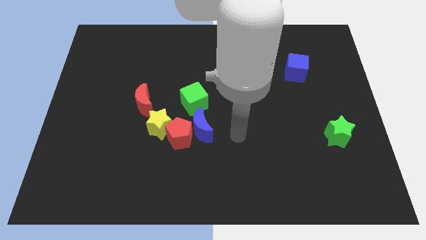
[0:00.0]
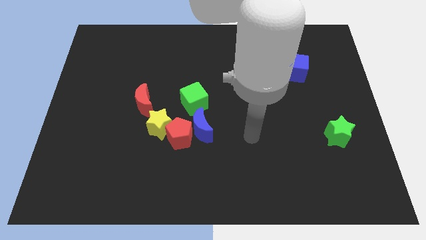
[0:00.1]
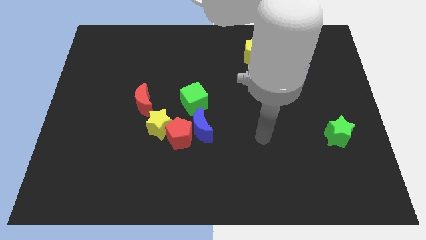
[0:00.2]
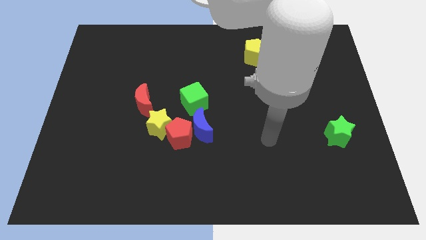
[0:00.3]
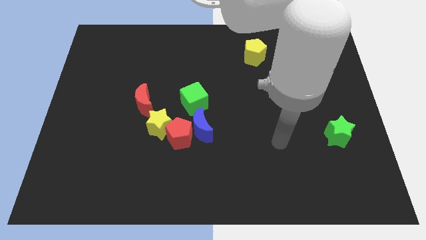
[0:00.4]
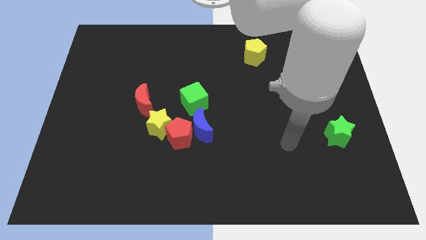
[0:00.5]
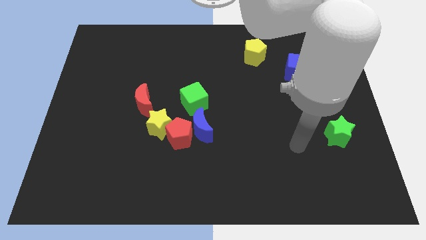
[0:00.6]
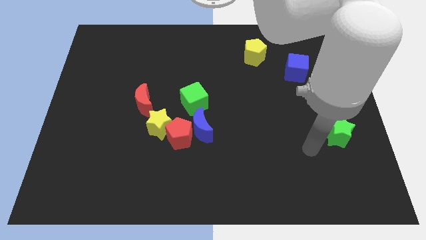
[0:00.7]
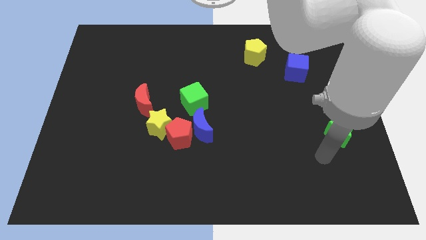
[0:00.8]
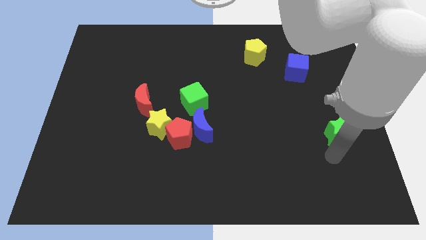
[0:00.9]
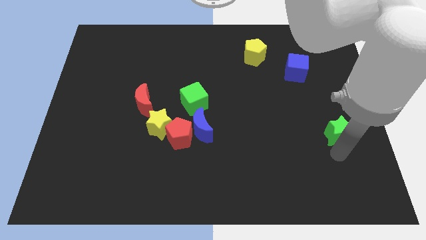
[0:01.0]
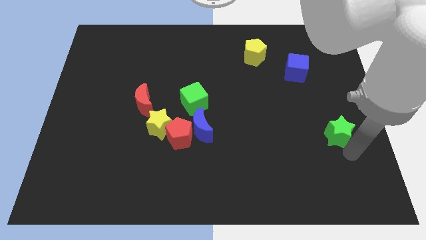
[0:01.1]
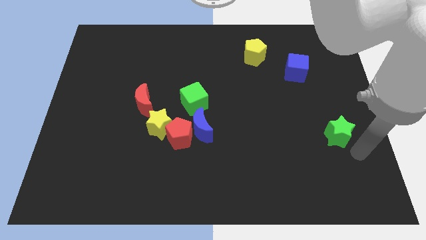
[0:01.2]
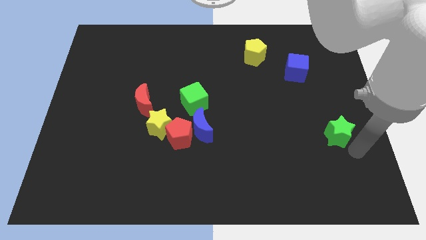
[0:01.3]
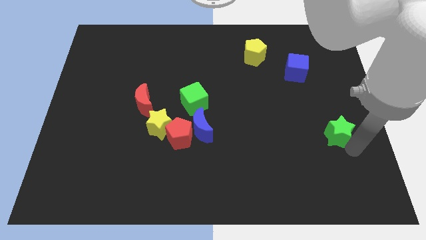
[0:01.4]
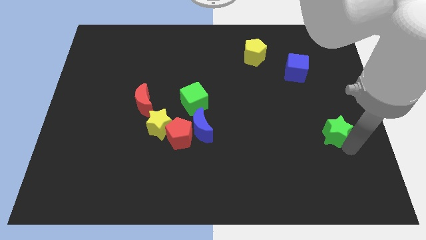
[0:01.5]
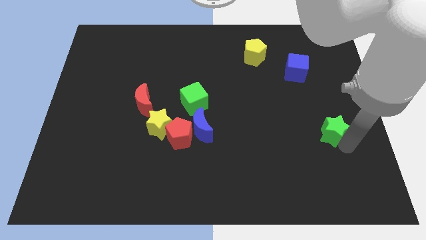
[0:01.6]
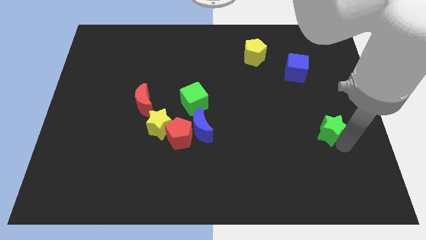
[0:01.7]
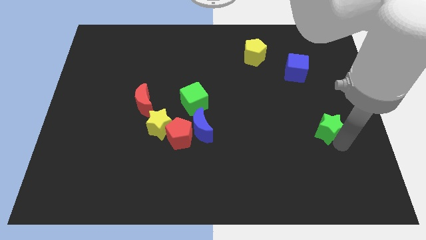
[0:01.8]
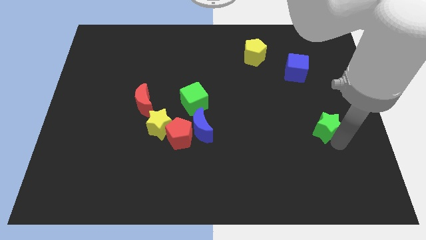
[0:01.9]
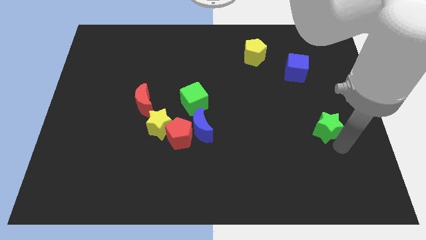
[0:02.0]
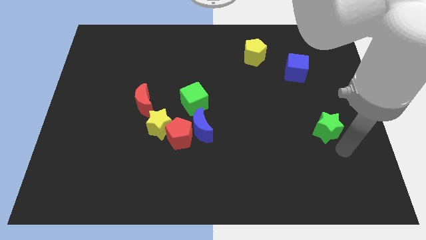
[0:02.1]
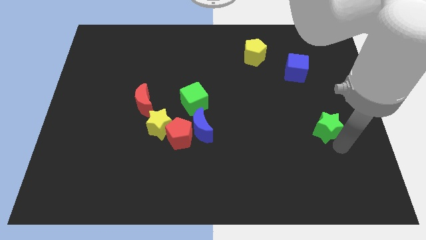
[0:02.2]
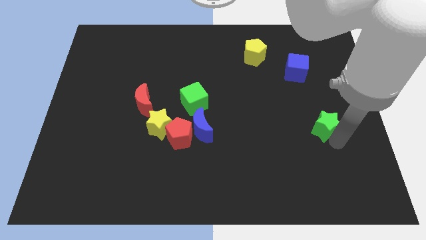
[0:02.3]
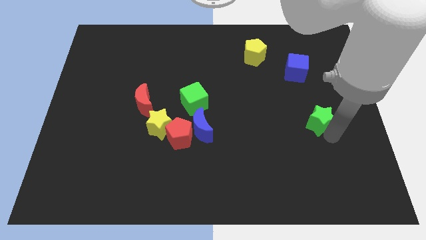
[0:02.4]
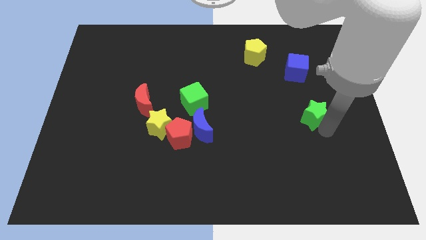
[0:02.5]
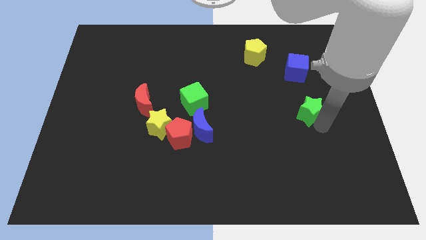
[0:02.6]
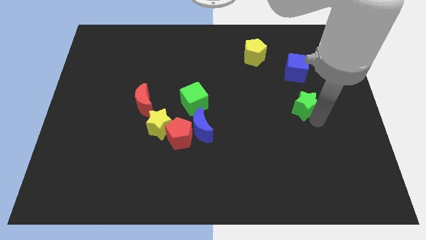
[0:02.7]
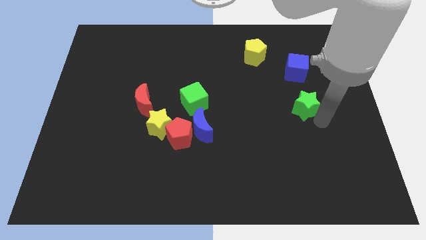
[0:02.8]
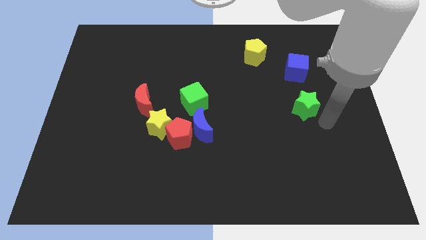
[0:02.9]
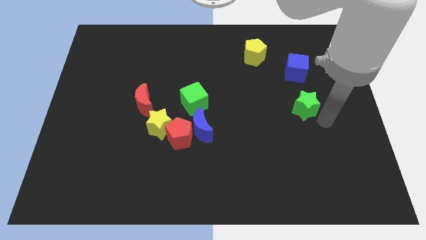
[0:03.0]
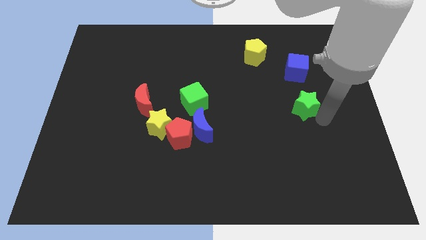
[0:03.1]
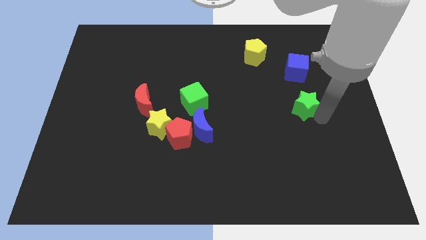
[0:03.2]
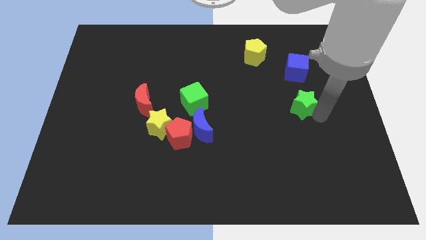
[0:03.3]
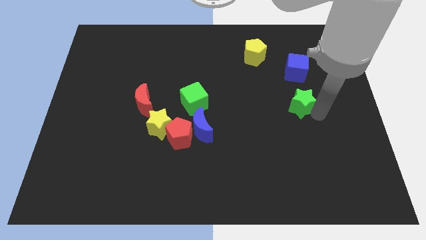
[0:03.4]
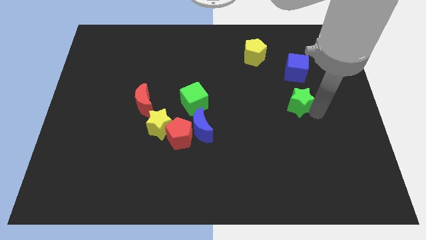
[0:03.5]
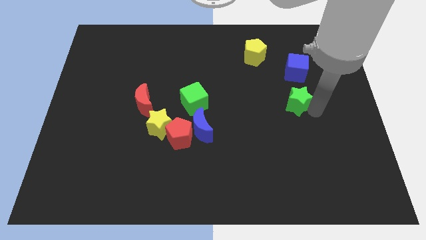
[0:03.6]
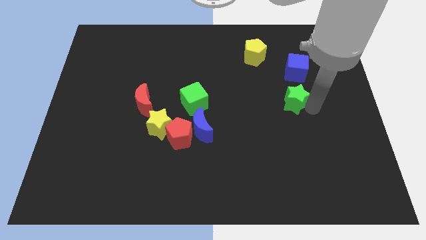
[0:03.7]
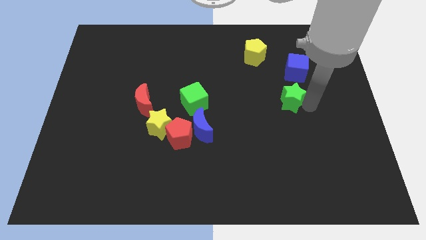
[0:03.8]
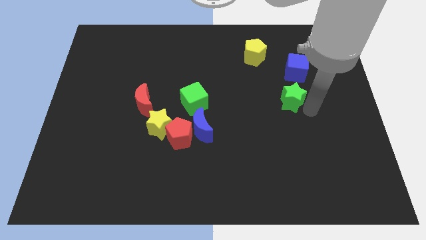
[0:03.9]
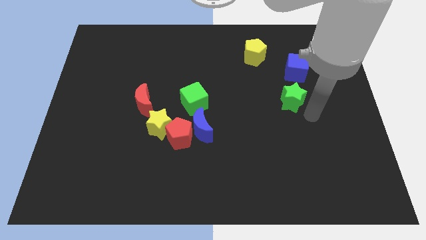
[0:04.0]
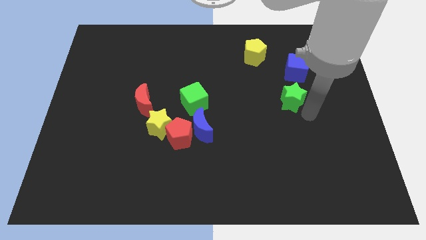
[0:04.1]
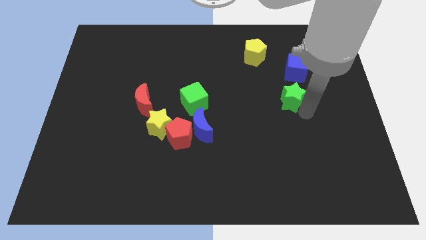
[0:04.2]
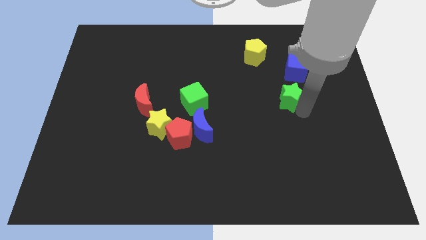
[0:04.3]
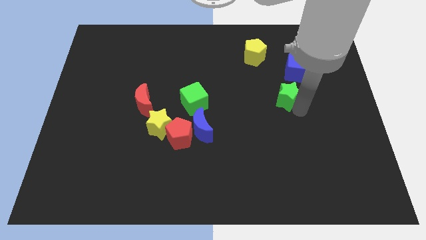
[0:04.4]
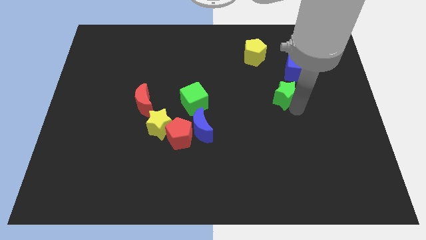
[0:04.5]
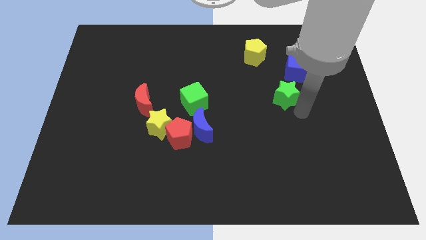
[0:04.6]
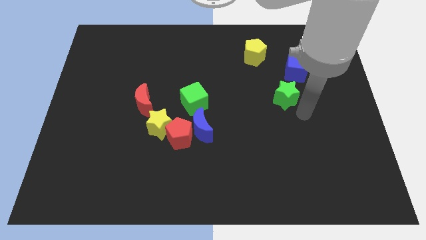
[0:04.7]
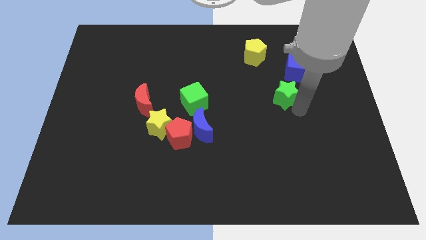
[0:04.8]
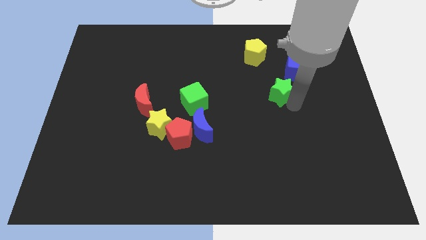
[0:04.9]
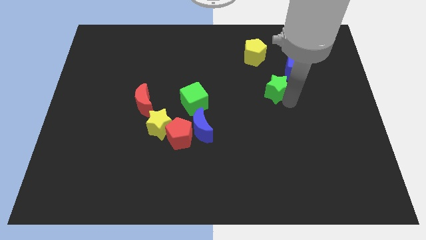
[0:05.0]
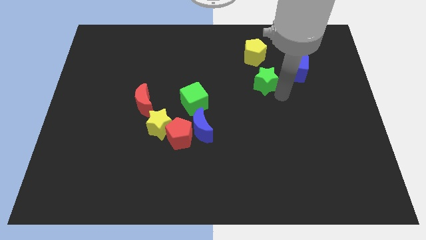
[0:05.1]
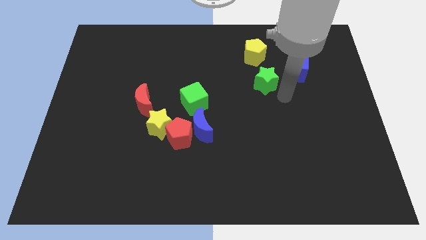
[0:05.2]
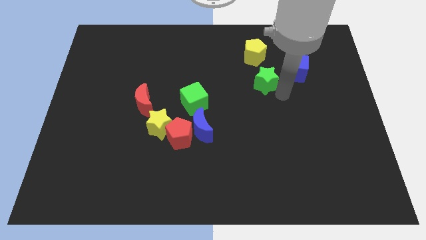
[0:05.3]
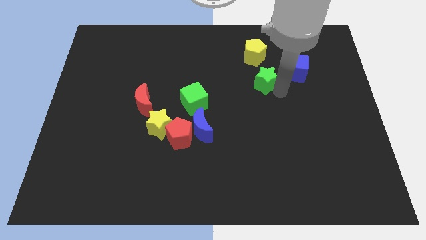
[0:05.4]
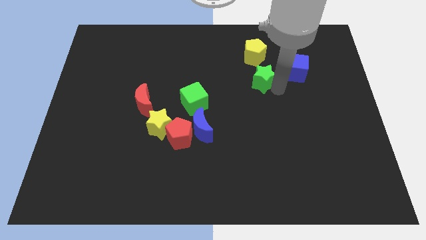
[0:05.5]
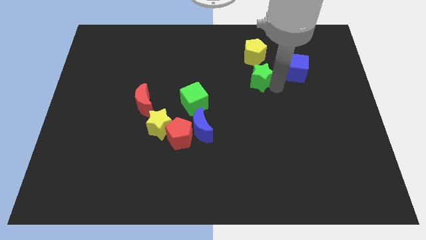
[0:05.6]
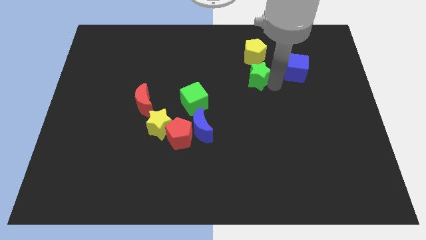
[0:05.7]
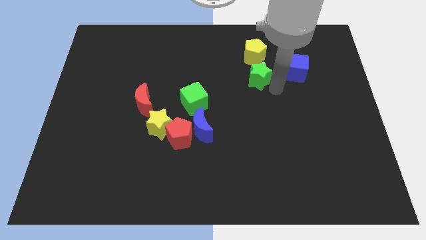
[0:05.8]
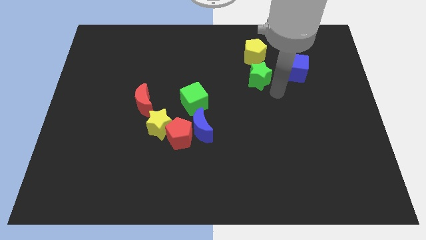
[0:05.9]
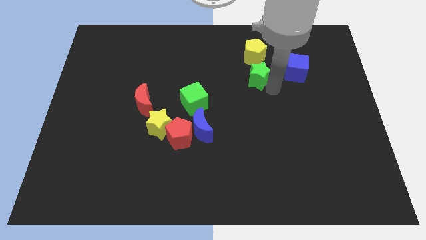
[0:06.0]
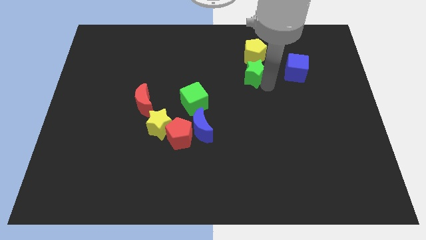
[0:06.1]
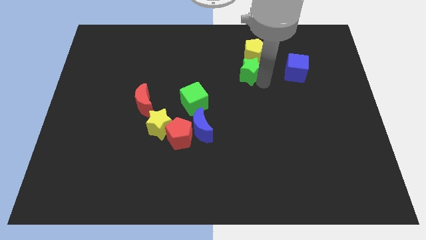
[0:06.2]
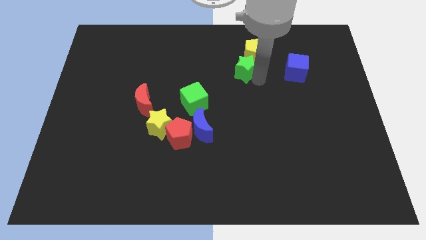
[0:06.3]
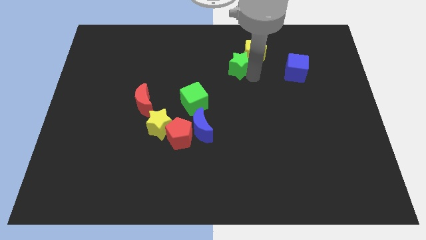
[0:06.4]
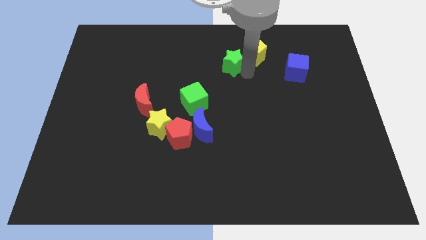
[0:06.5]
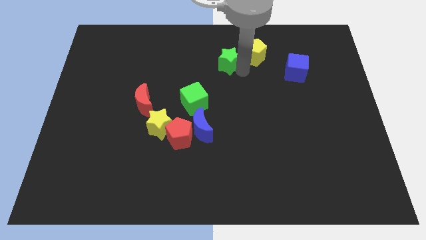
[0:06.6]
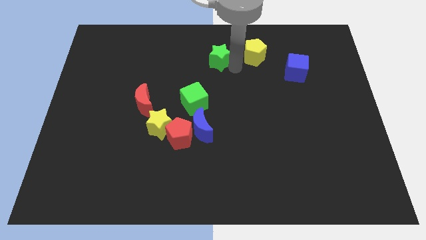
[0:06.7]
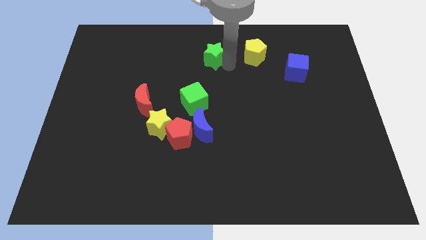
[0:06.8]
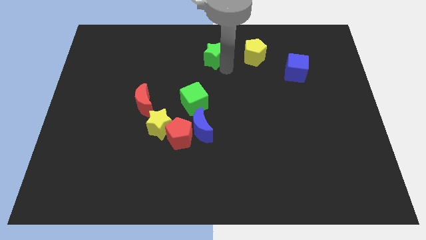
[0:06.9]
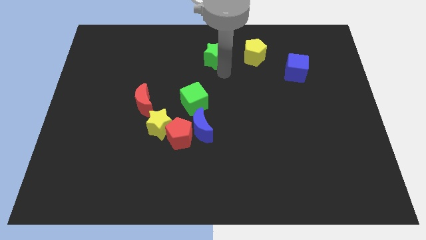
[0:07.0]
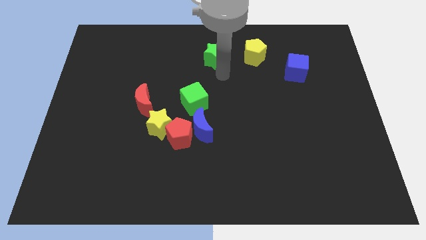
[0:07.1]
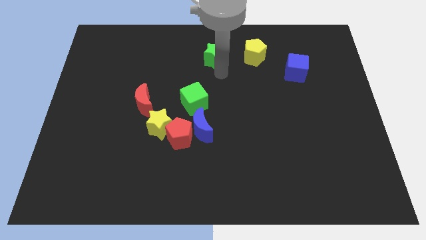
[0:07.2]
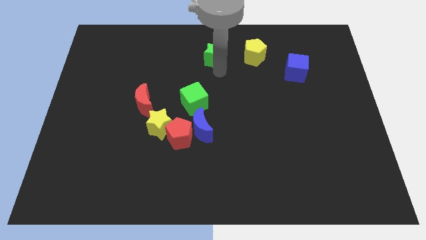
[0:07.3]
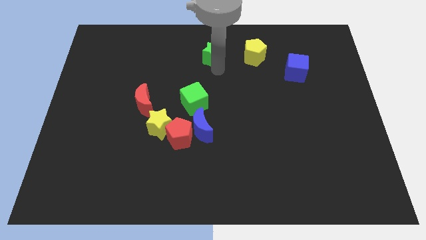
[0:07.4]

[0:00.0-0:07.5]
put the green star to the towards your base
